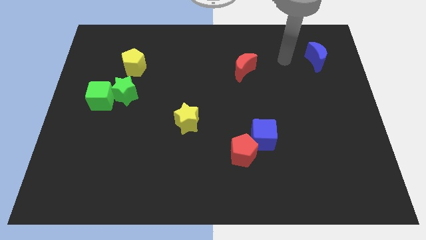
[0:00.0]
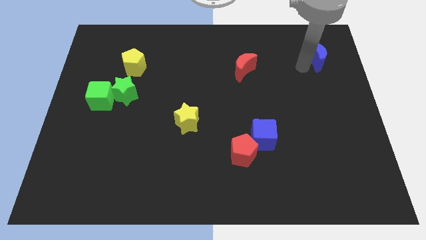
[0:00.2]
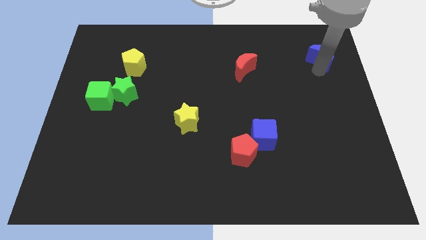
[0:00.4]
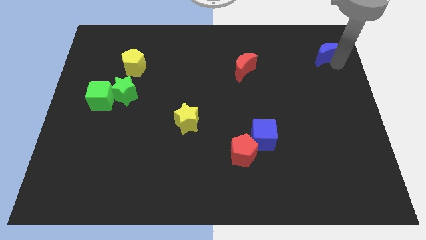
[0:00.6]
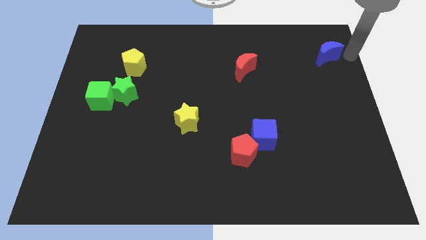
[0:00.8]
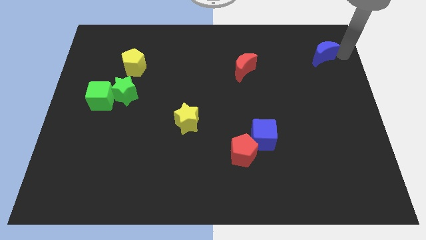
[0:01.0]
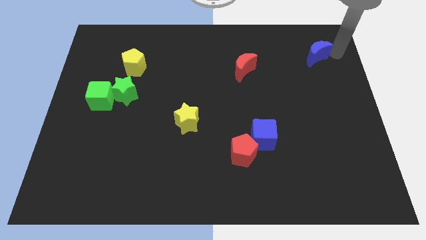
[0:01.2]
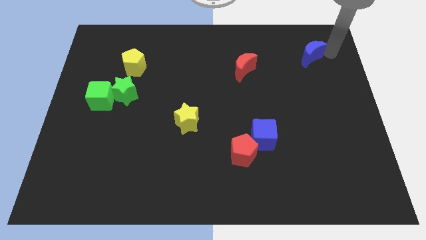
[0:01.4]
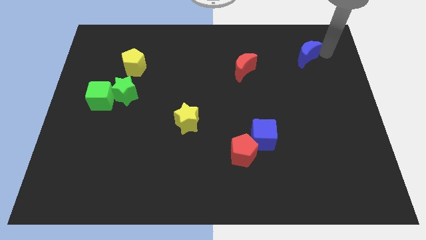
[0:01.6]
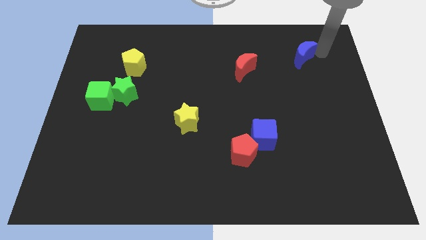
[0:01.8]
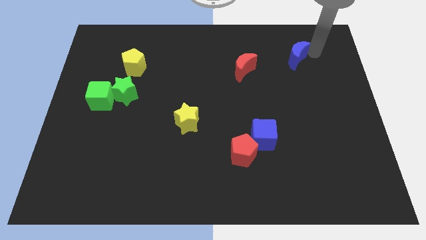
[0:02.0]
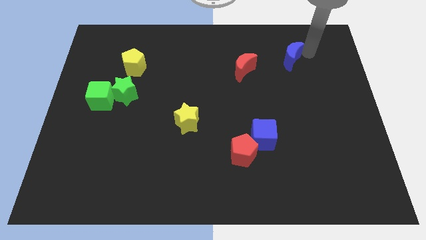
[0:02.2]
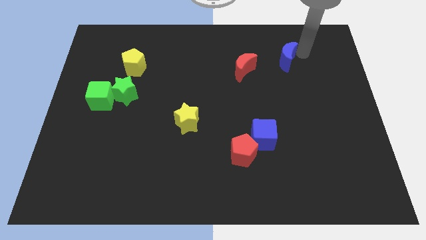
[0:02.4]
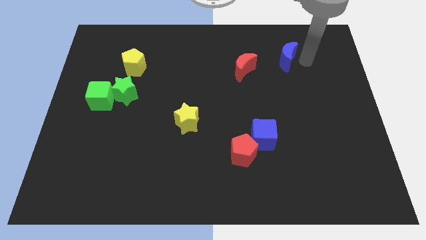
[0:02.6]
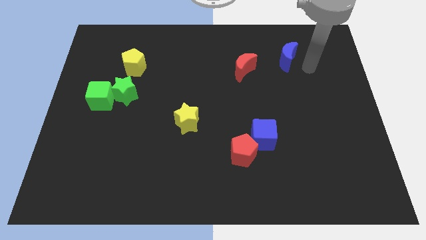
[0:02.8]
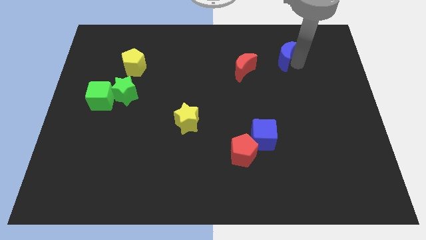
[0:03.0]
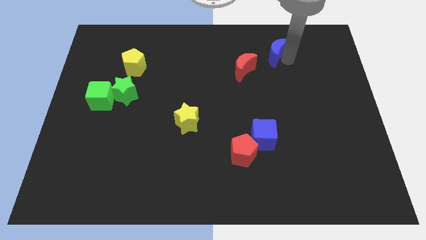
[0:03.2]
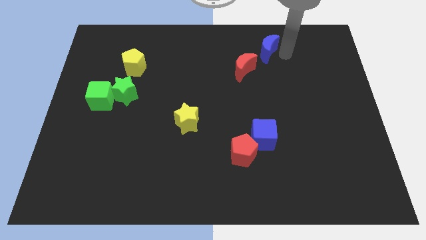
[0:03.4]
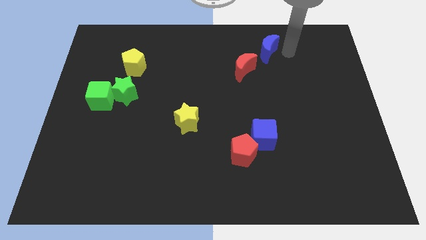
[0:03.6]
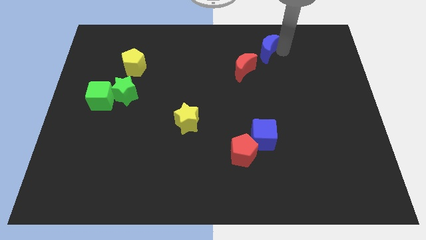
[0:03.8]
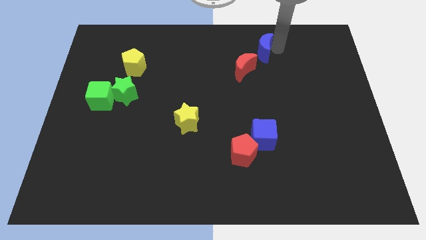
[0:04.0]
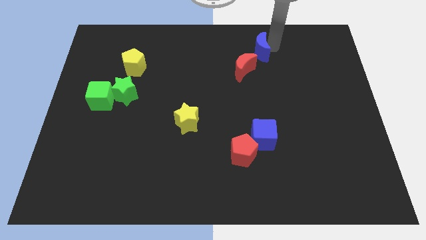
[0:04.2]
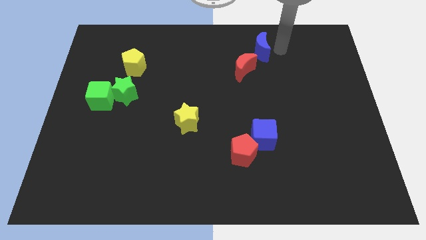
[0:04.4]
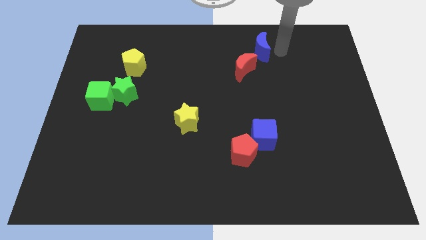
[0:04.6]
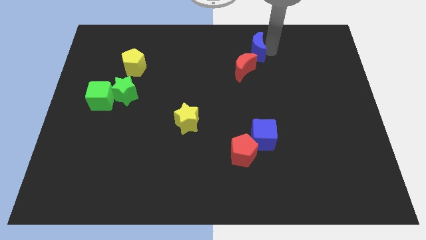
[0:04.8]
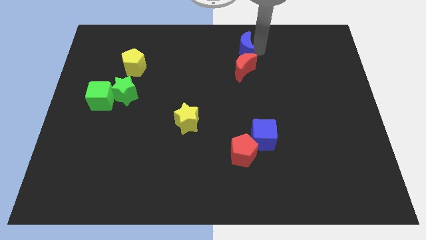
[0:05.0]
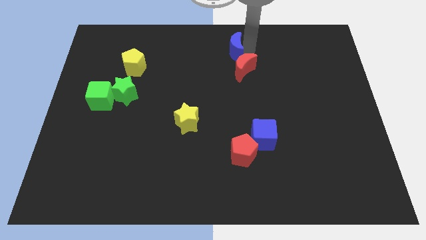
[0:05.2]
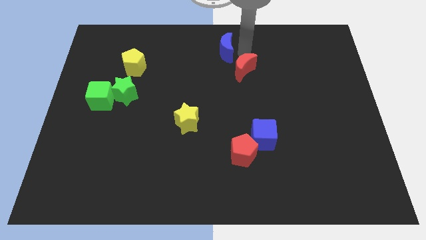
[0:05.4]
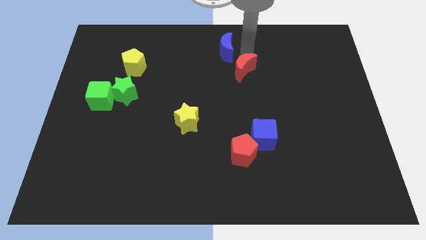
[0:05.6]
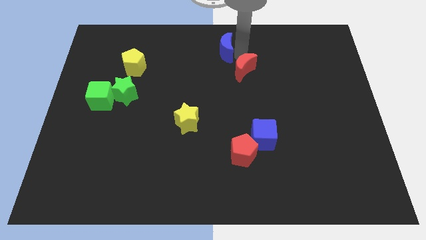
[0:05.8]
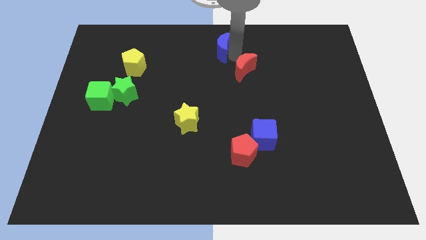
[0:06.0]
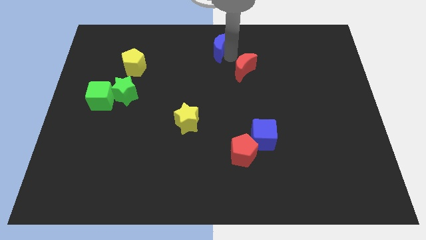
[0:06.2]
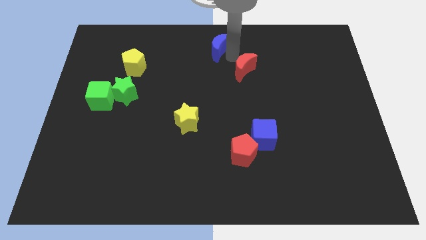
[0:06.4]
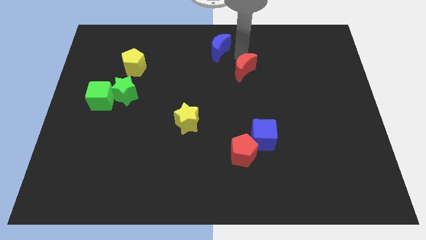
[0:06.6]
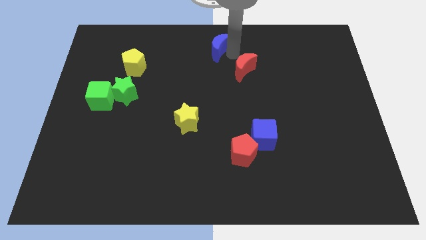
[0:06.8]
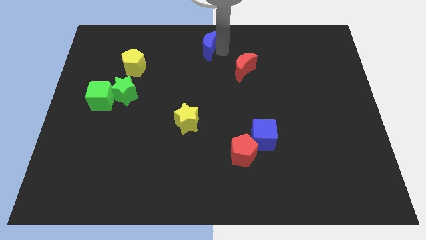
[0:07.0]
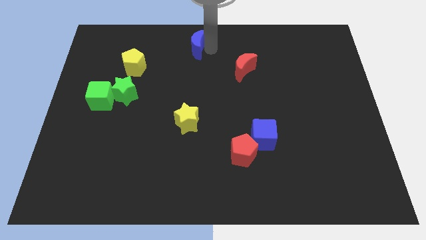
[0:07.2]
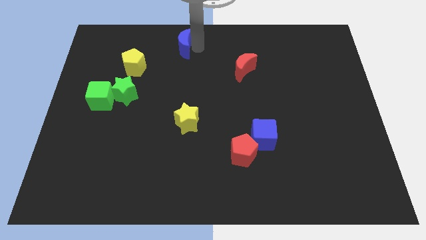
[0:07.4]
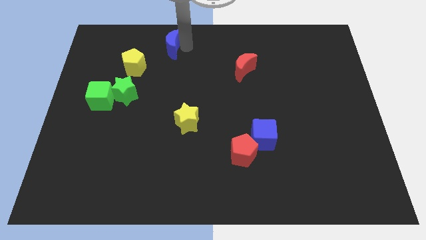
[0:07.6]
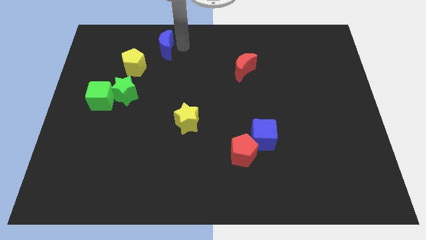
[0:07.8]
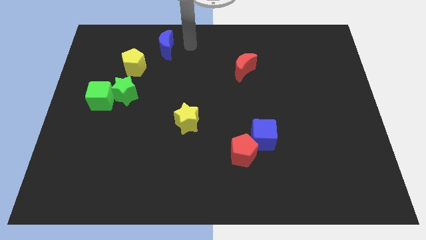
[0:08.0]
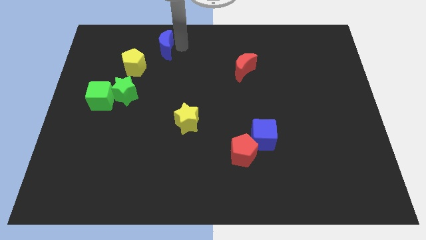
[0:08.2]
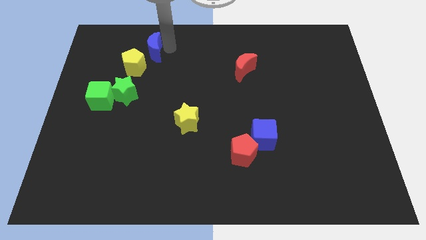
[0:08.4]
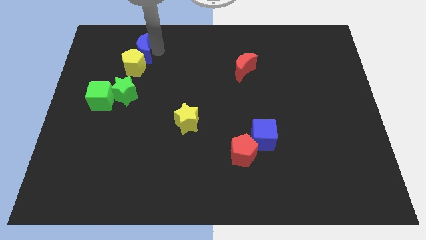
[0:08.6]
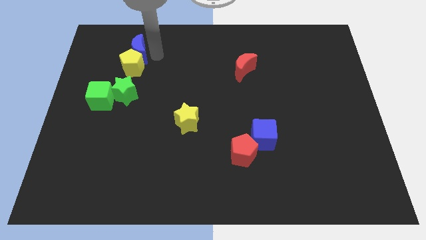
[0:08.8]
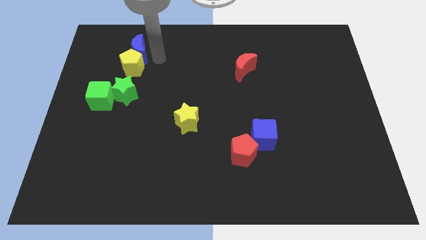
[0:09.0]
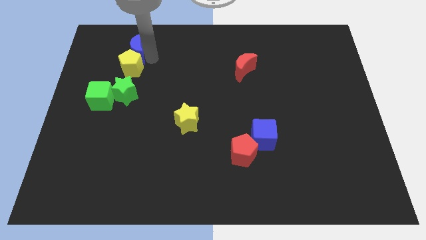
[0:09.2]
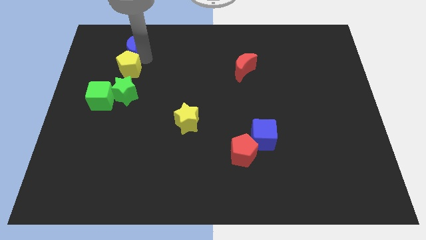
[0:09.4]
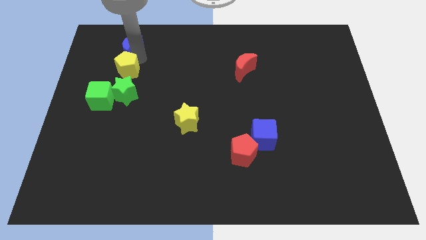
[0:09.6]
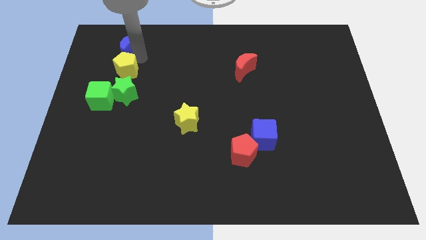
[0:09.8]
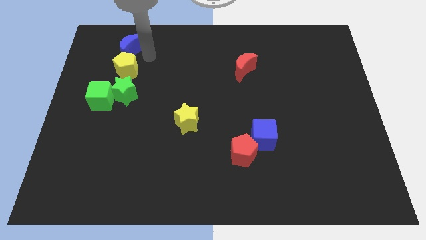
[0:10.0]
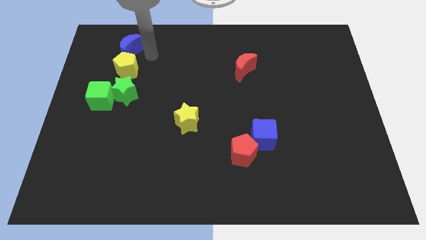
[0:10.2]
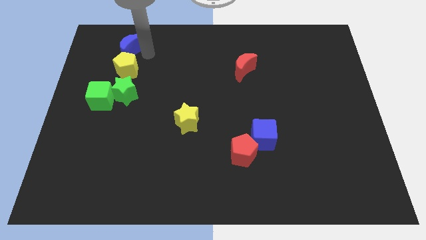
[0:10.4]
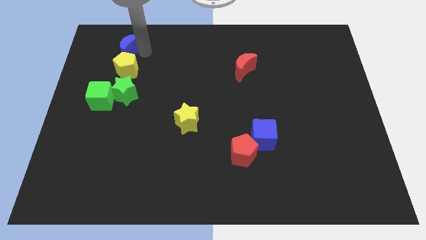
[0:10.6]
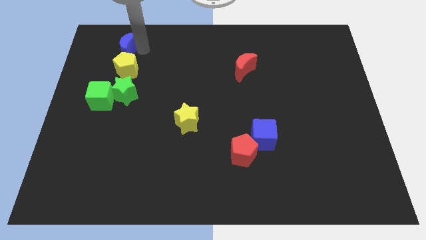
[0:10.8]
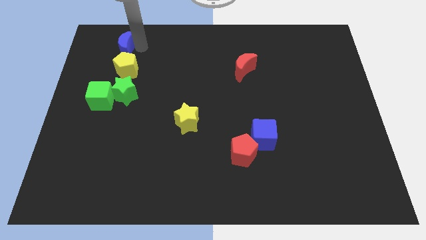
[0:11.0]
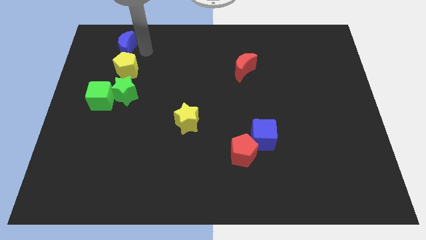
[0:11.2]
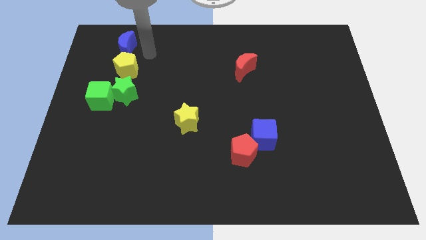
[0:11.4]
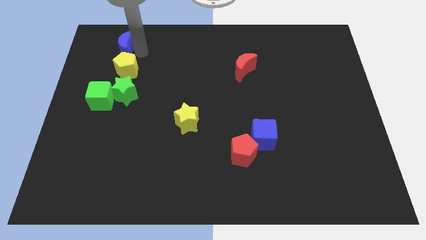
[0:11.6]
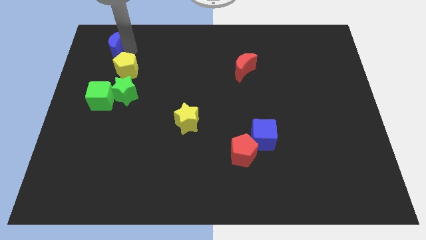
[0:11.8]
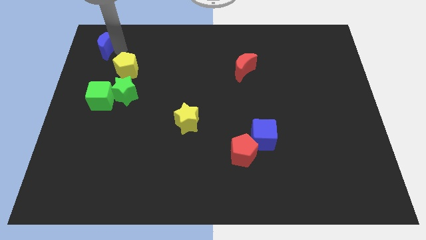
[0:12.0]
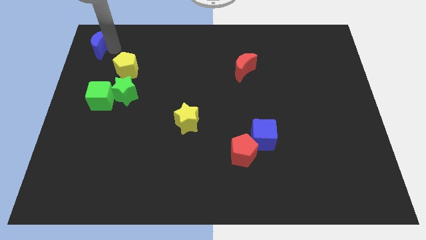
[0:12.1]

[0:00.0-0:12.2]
move the blue moon to the top left

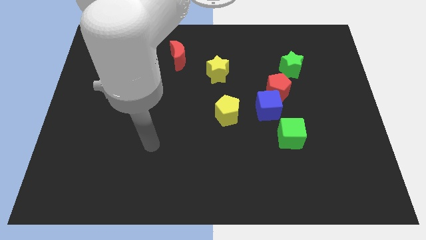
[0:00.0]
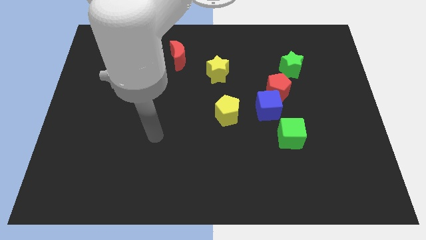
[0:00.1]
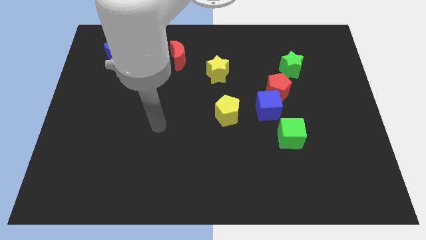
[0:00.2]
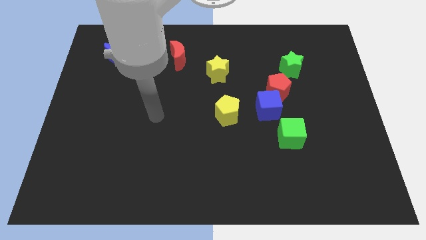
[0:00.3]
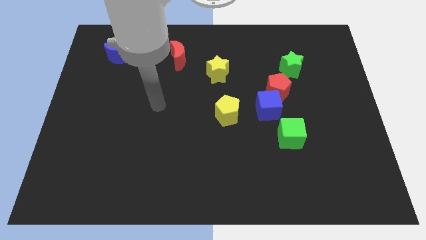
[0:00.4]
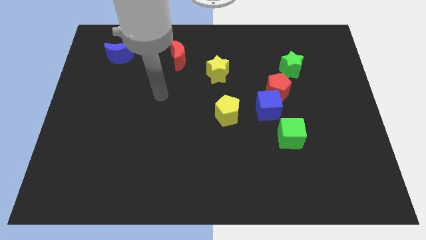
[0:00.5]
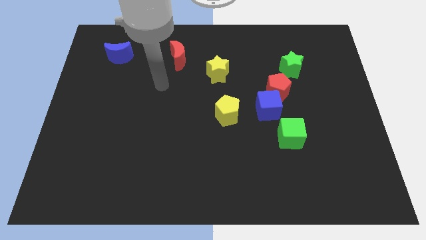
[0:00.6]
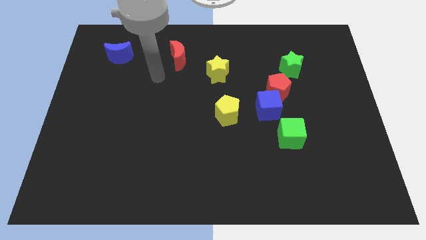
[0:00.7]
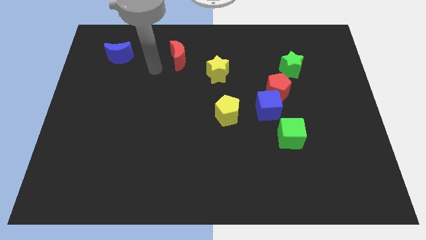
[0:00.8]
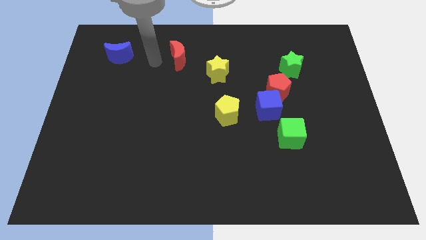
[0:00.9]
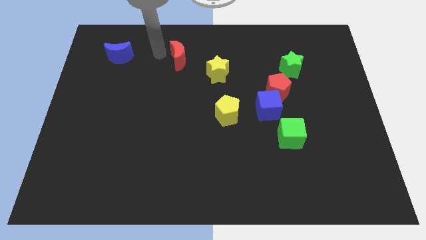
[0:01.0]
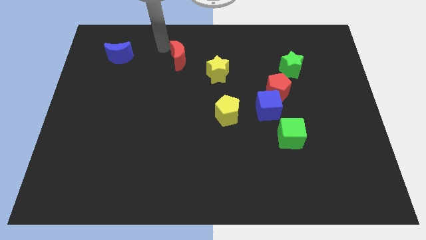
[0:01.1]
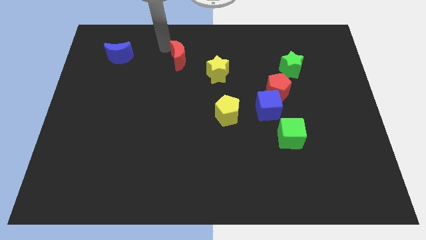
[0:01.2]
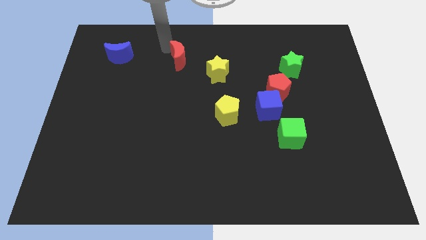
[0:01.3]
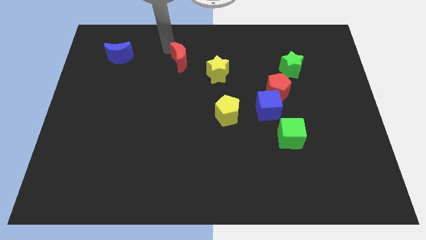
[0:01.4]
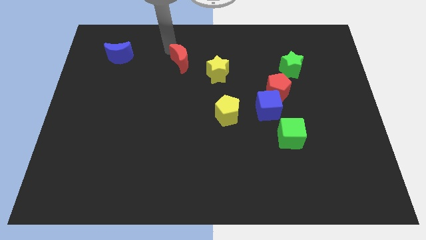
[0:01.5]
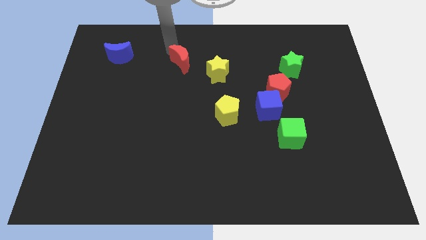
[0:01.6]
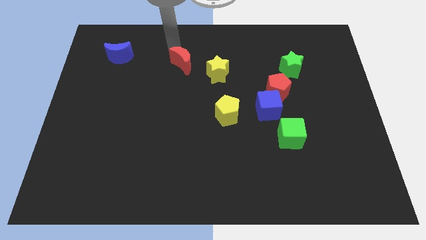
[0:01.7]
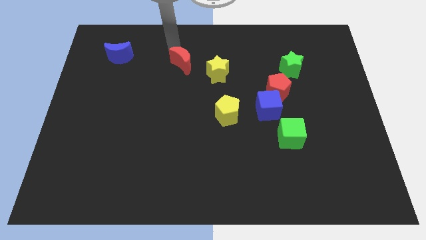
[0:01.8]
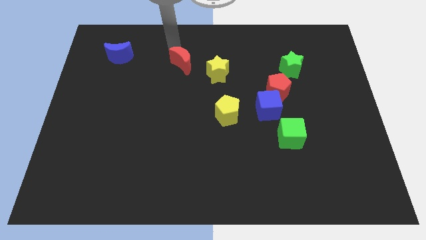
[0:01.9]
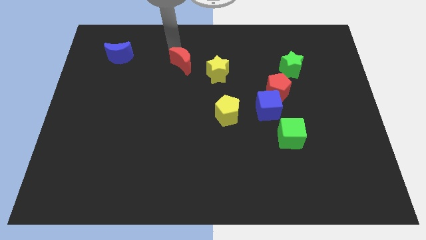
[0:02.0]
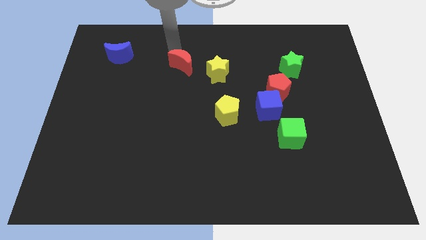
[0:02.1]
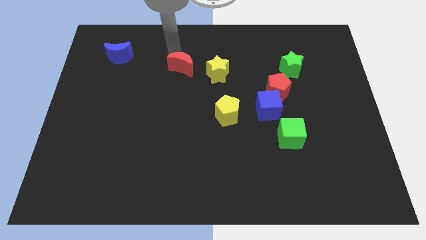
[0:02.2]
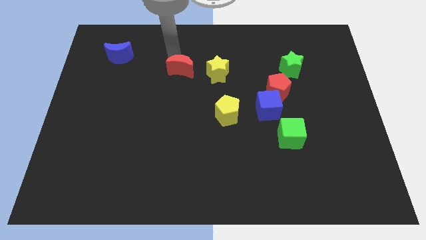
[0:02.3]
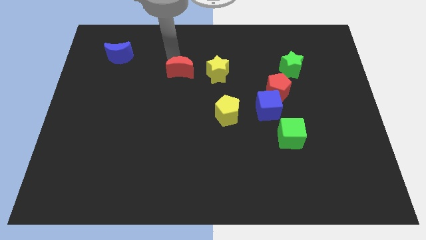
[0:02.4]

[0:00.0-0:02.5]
put the red moon to the middle of the board
